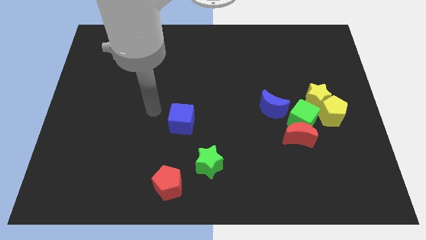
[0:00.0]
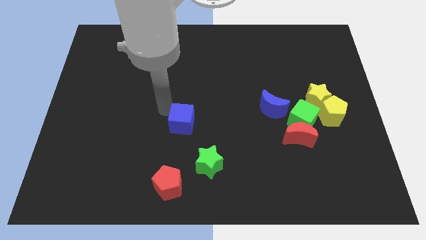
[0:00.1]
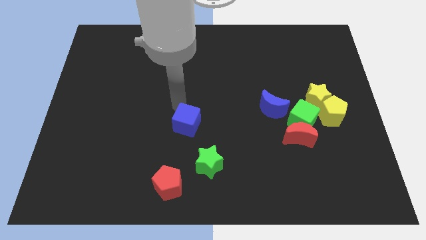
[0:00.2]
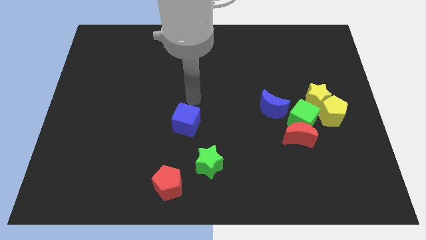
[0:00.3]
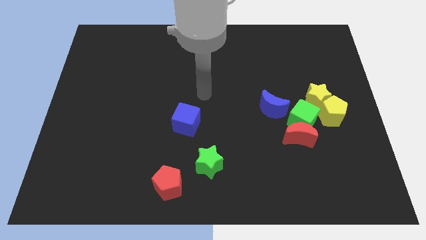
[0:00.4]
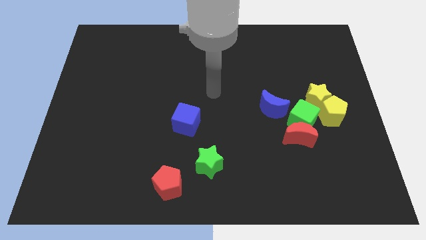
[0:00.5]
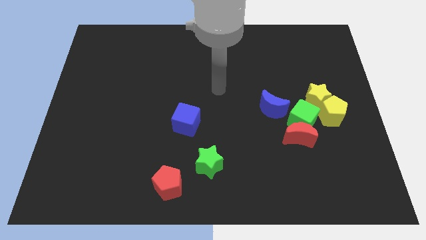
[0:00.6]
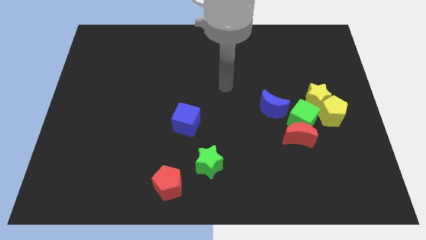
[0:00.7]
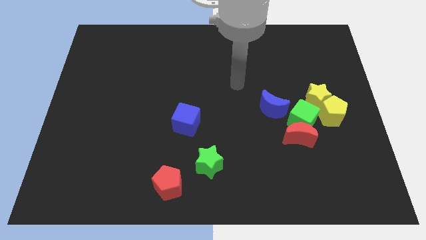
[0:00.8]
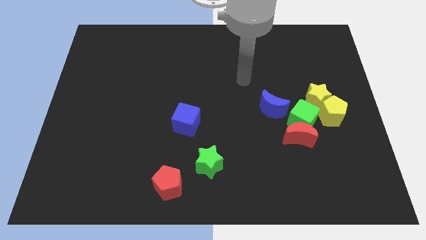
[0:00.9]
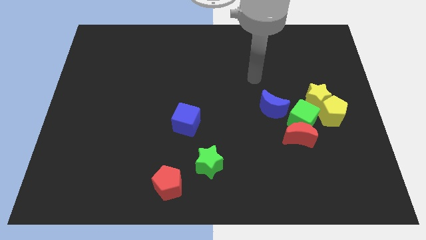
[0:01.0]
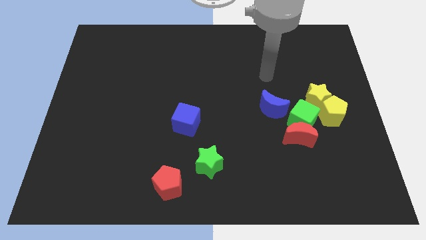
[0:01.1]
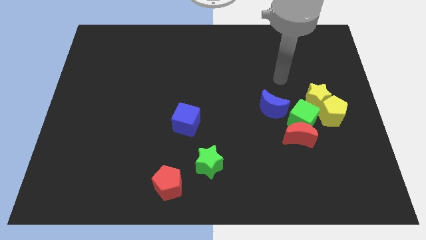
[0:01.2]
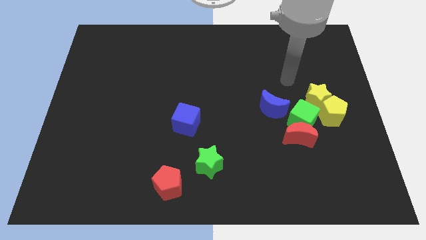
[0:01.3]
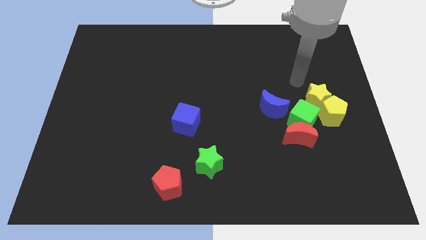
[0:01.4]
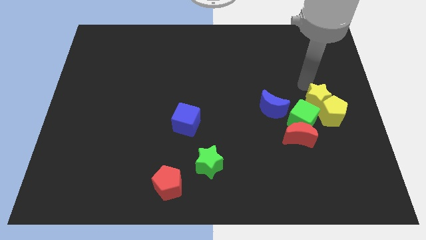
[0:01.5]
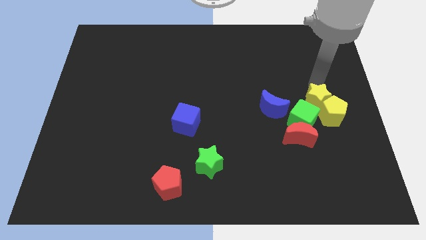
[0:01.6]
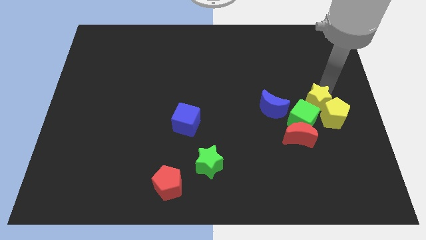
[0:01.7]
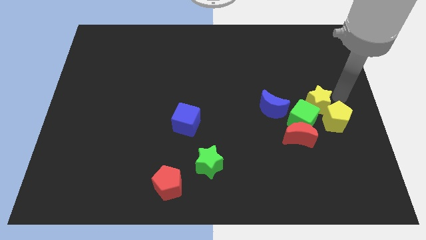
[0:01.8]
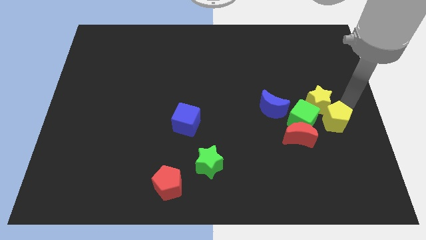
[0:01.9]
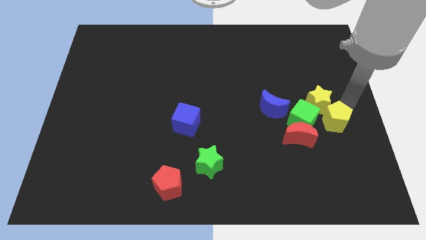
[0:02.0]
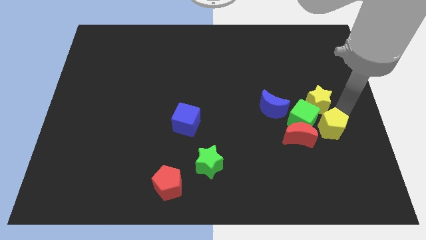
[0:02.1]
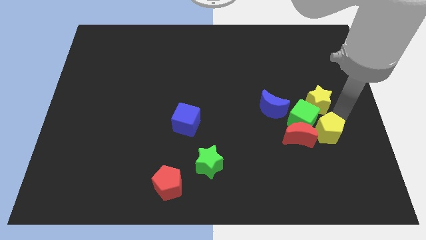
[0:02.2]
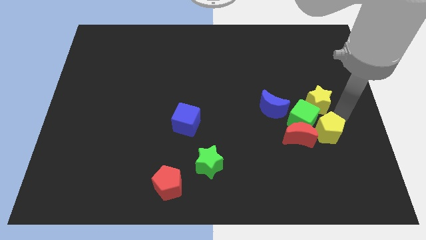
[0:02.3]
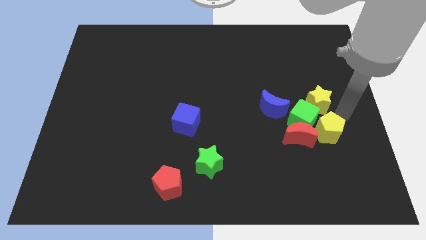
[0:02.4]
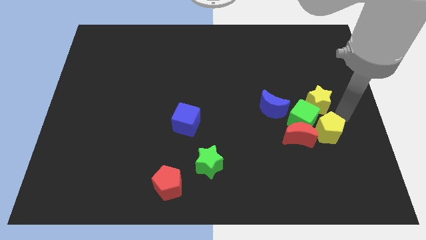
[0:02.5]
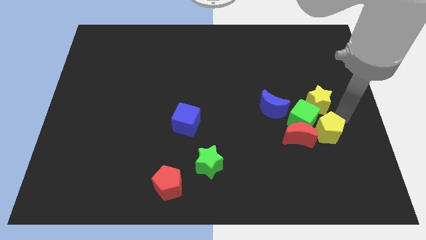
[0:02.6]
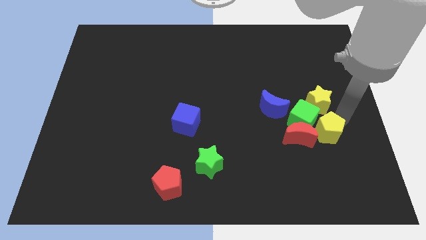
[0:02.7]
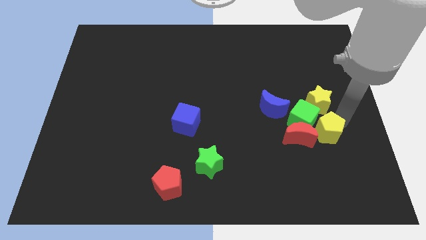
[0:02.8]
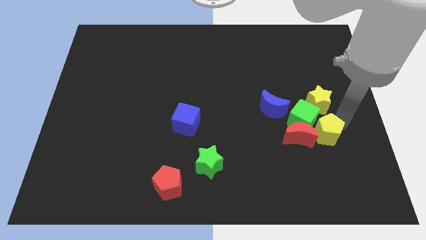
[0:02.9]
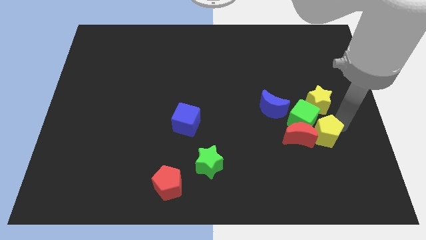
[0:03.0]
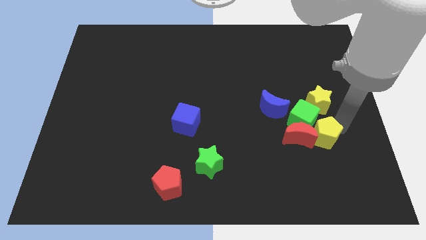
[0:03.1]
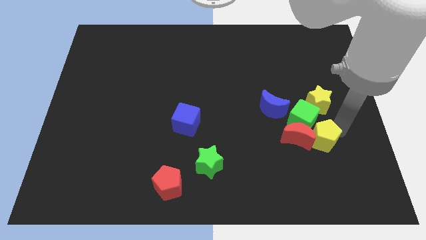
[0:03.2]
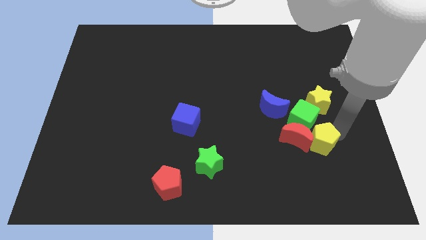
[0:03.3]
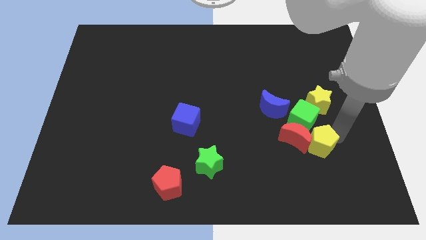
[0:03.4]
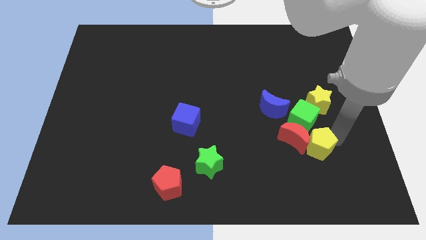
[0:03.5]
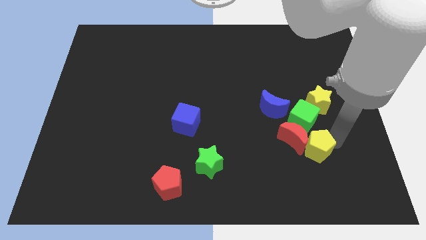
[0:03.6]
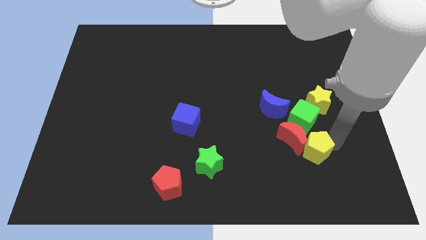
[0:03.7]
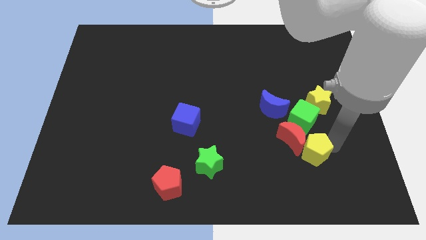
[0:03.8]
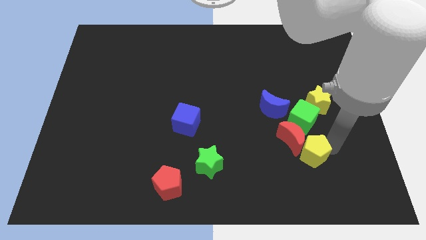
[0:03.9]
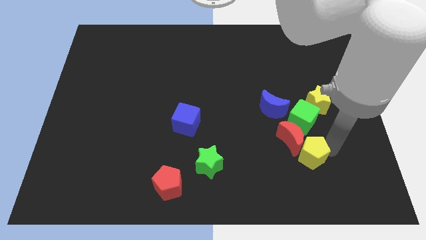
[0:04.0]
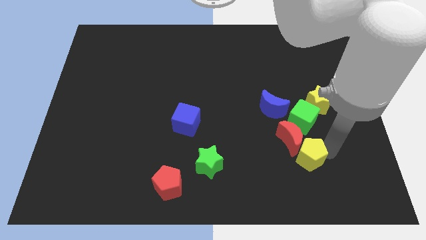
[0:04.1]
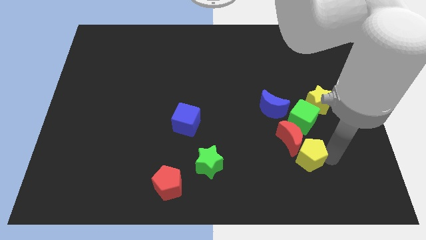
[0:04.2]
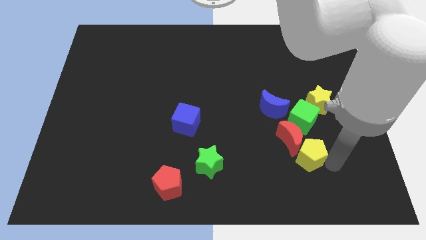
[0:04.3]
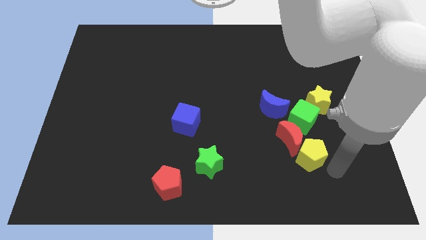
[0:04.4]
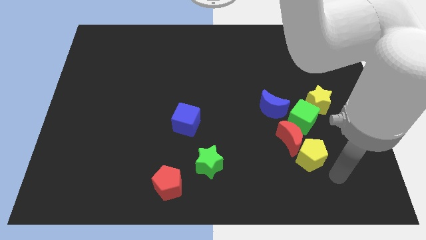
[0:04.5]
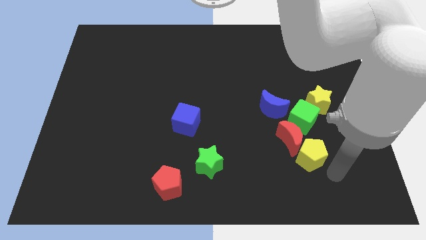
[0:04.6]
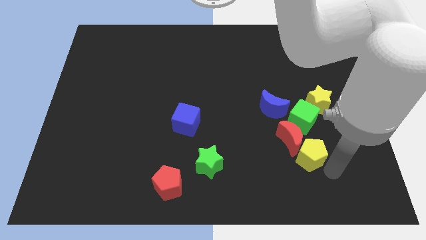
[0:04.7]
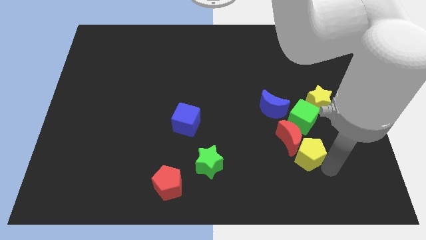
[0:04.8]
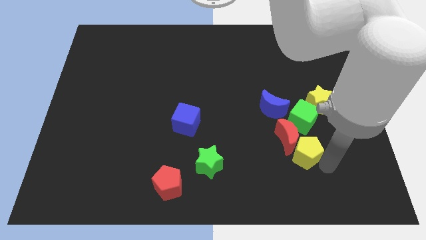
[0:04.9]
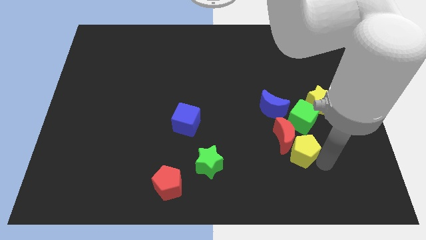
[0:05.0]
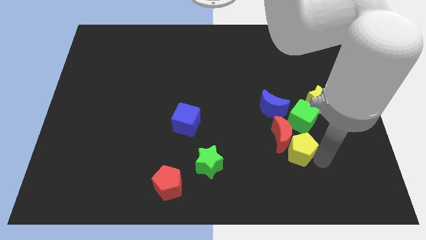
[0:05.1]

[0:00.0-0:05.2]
push the yellow pentagon to the bottom left side of the green cube

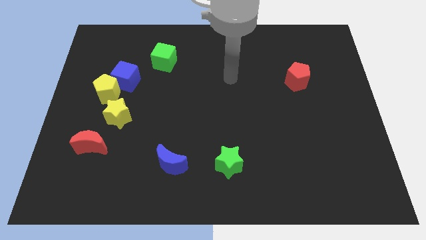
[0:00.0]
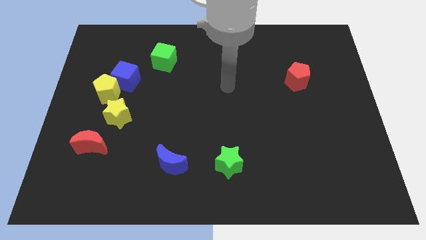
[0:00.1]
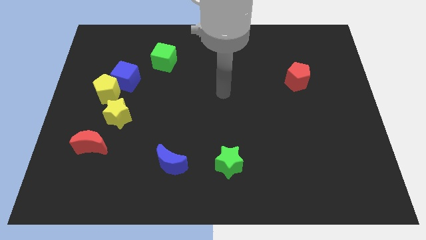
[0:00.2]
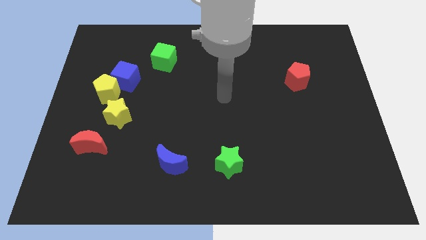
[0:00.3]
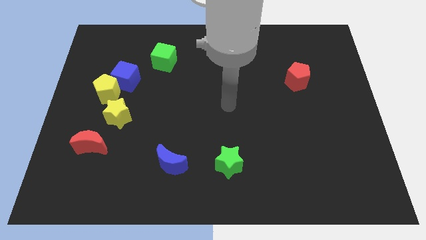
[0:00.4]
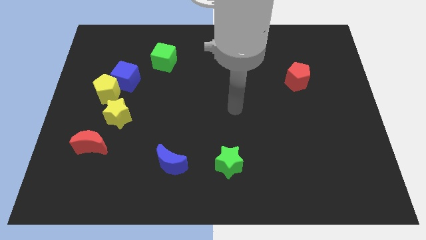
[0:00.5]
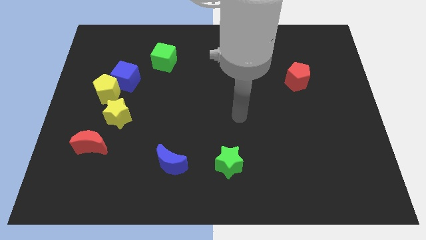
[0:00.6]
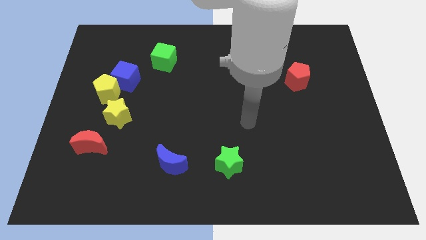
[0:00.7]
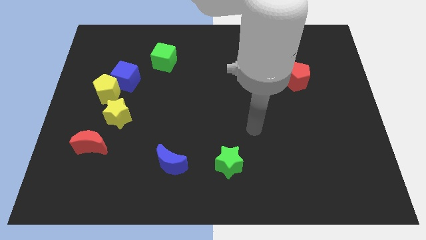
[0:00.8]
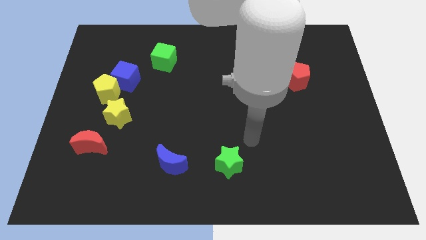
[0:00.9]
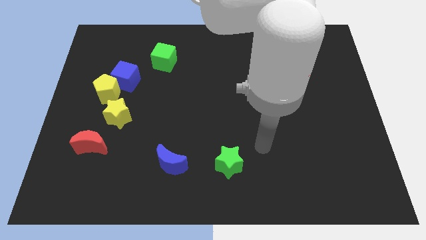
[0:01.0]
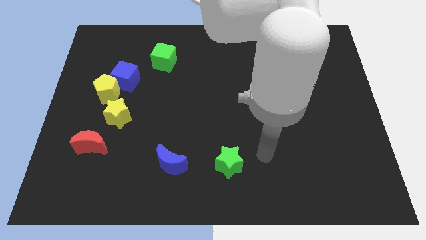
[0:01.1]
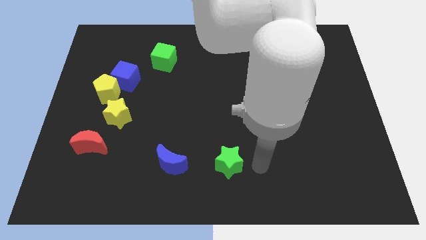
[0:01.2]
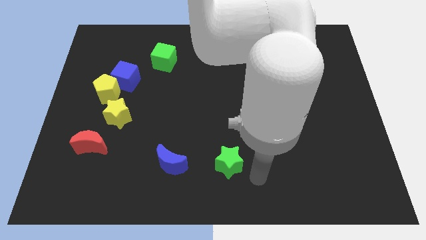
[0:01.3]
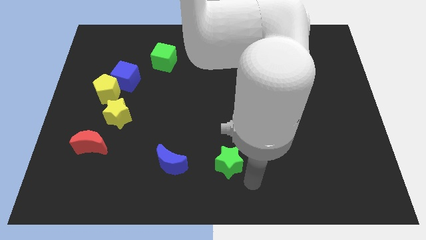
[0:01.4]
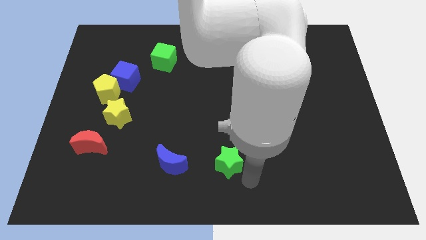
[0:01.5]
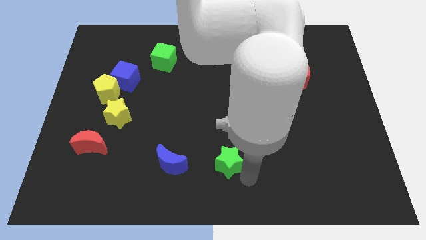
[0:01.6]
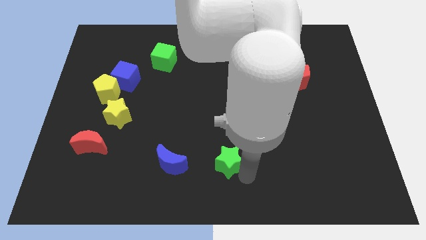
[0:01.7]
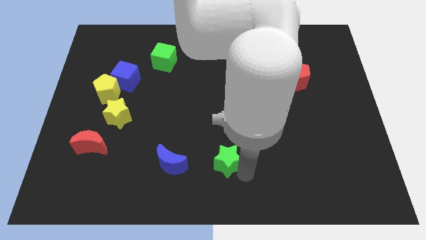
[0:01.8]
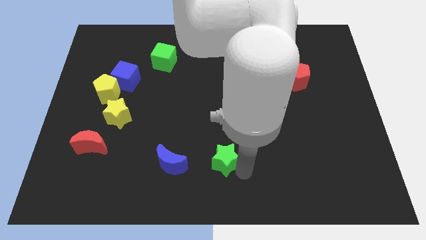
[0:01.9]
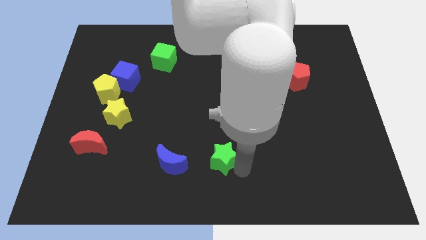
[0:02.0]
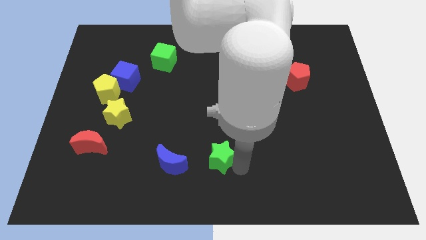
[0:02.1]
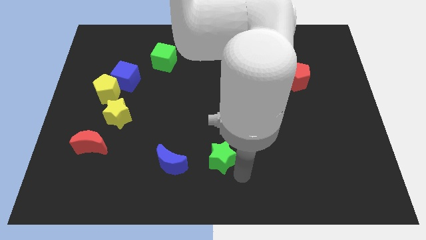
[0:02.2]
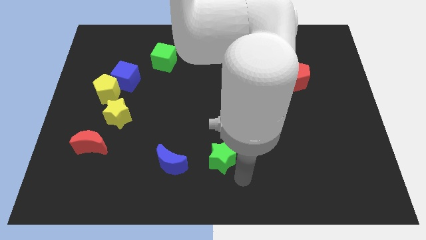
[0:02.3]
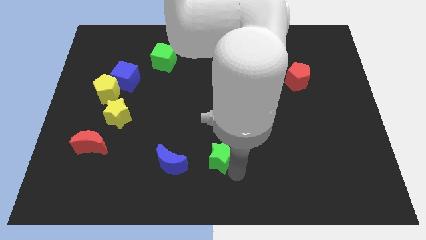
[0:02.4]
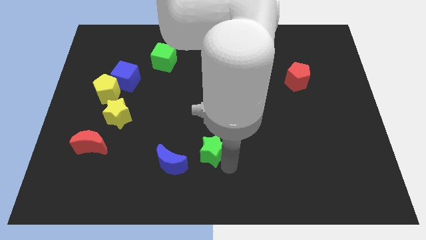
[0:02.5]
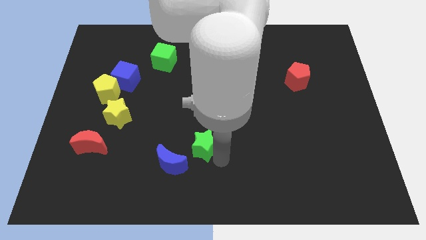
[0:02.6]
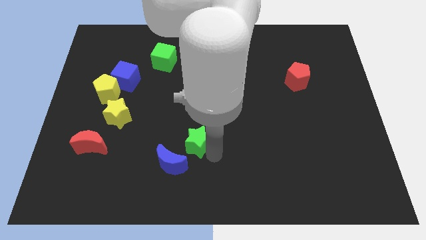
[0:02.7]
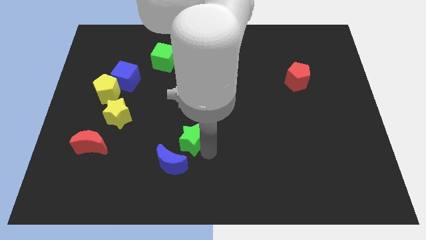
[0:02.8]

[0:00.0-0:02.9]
push the green star to the top of the blue moon
